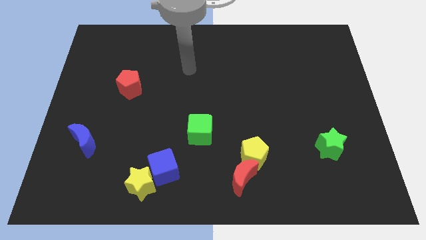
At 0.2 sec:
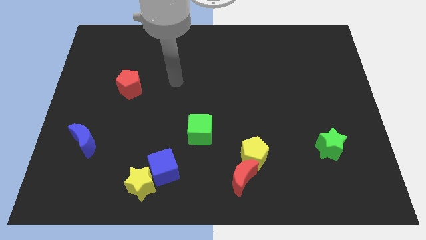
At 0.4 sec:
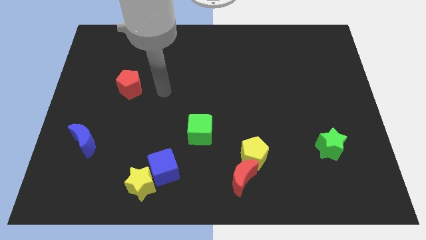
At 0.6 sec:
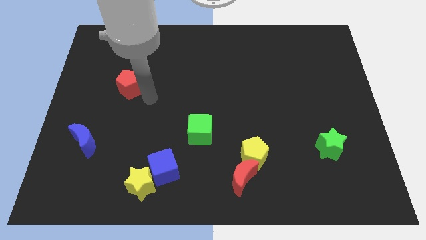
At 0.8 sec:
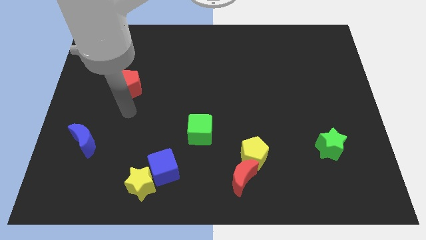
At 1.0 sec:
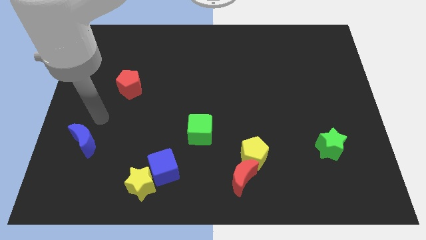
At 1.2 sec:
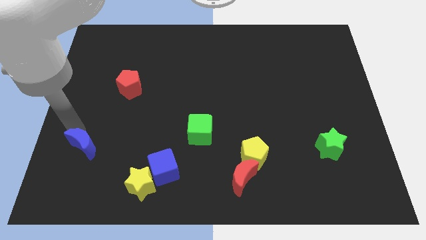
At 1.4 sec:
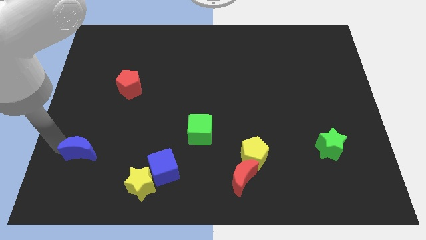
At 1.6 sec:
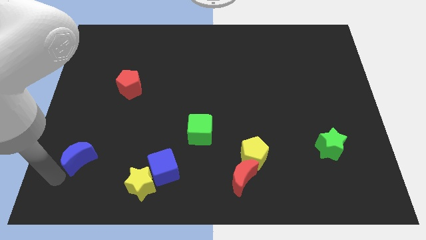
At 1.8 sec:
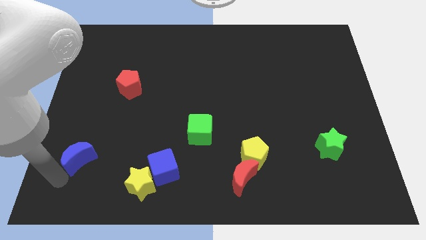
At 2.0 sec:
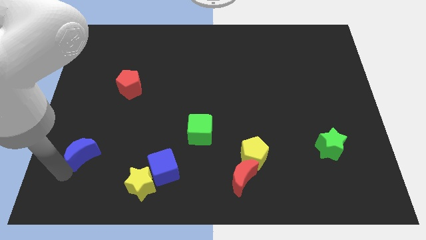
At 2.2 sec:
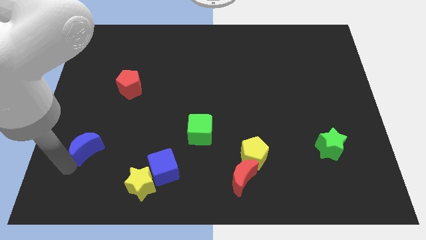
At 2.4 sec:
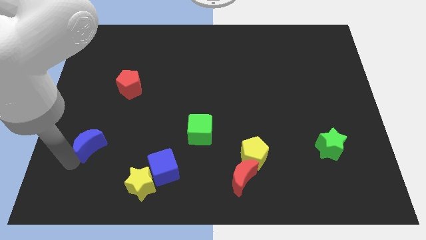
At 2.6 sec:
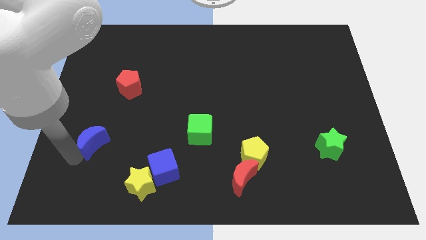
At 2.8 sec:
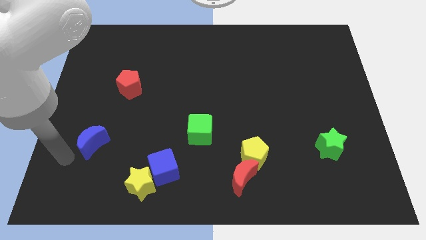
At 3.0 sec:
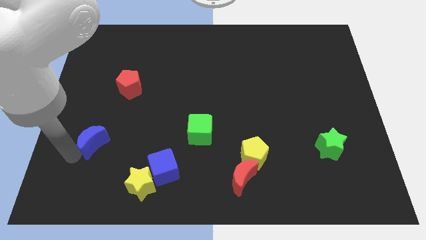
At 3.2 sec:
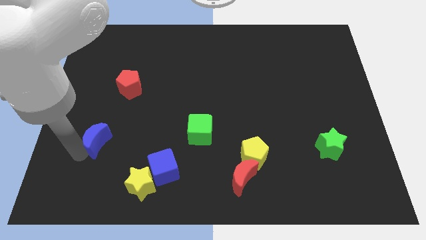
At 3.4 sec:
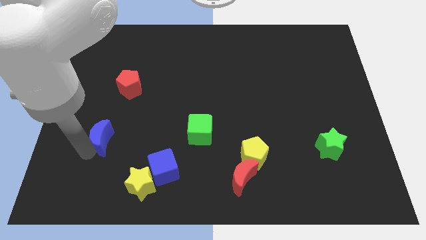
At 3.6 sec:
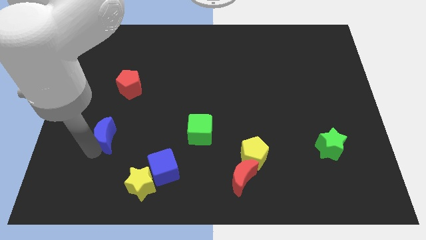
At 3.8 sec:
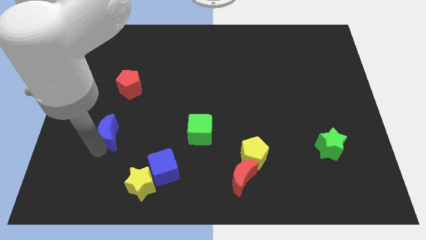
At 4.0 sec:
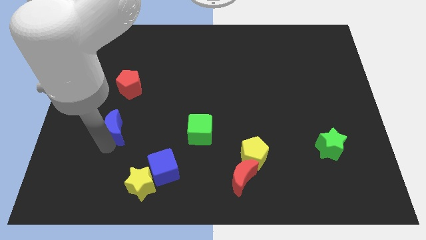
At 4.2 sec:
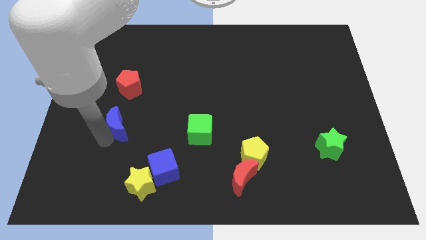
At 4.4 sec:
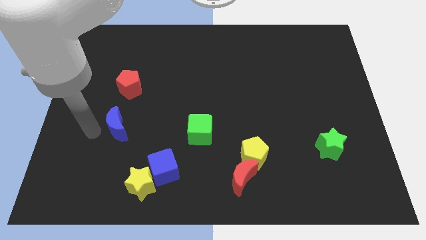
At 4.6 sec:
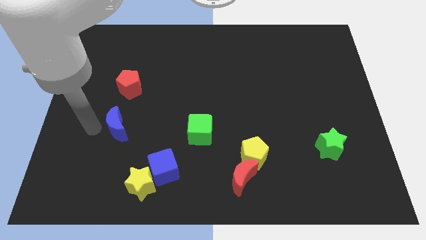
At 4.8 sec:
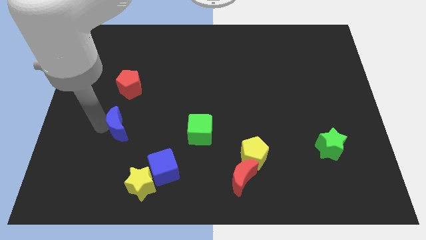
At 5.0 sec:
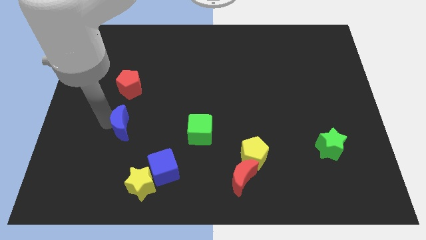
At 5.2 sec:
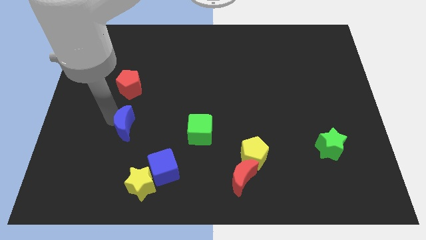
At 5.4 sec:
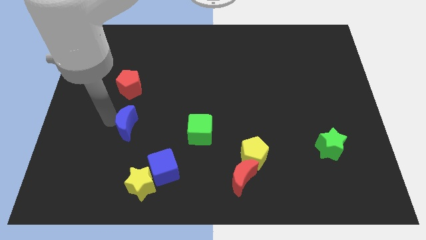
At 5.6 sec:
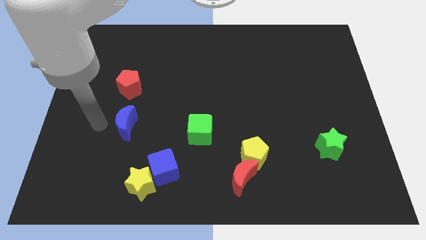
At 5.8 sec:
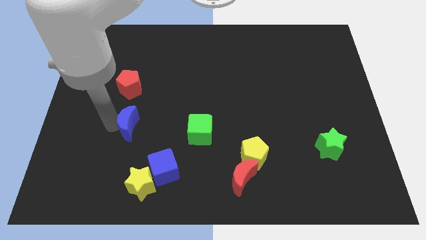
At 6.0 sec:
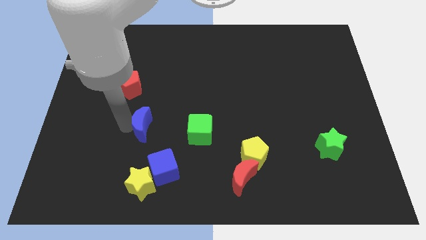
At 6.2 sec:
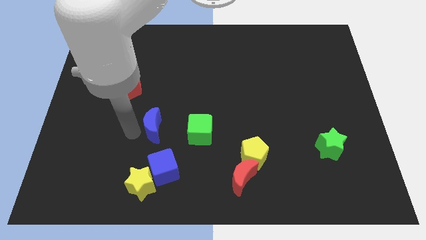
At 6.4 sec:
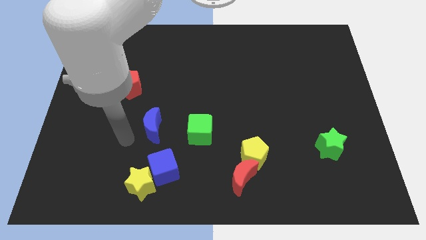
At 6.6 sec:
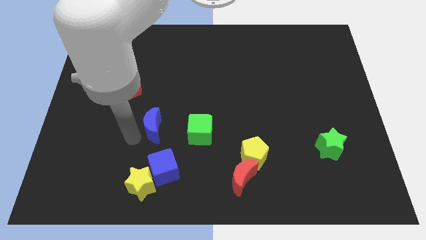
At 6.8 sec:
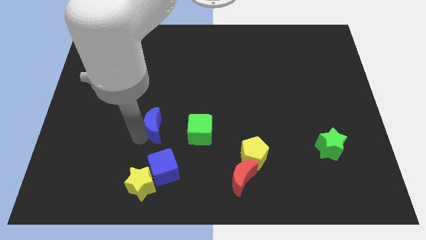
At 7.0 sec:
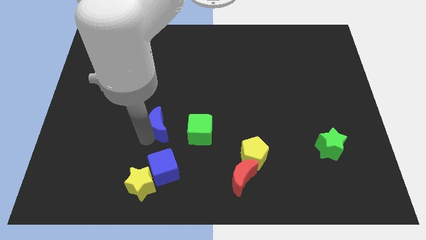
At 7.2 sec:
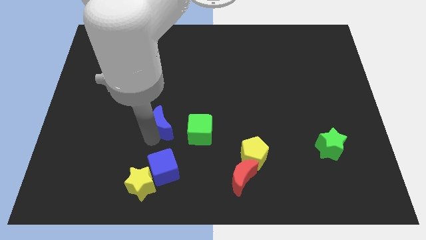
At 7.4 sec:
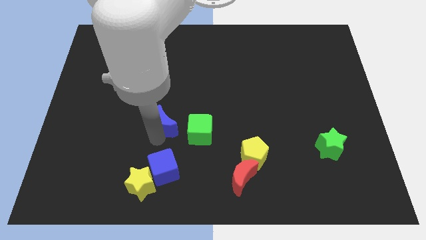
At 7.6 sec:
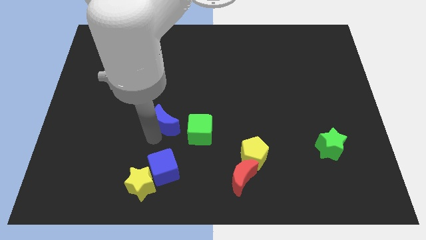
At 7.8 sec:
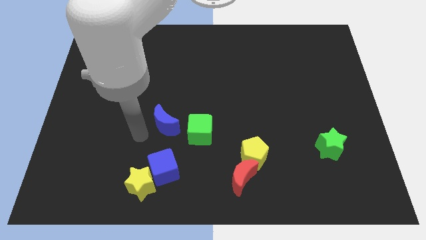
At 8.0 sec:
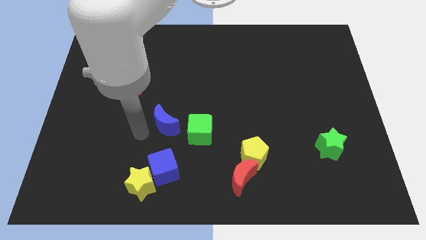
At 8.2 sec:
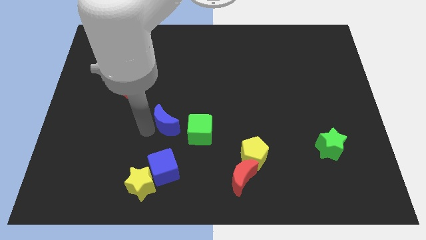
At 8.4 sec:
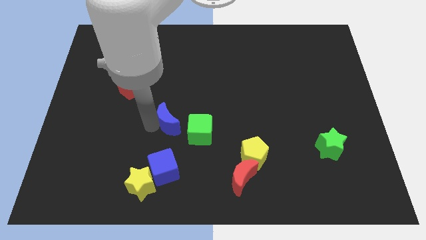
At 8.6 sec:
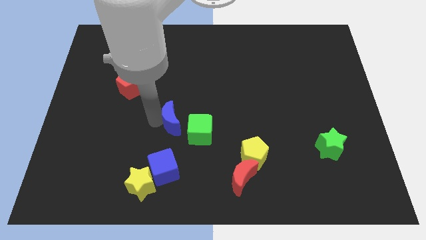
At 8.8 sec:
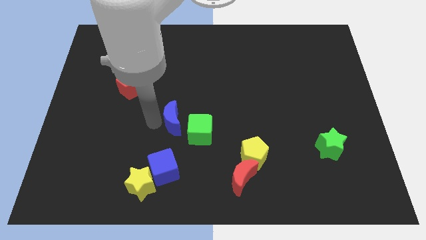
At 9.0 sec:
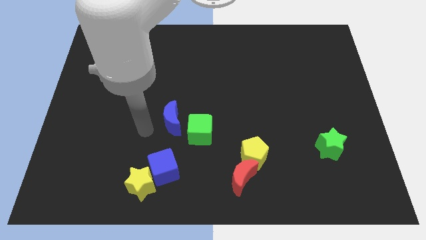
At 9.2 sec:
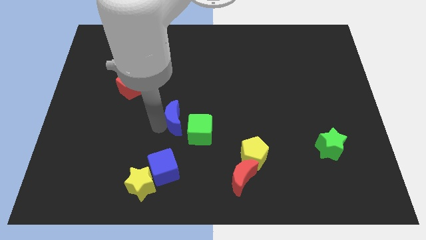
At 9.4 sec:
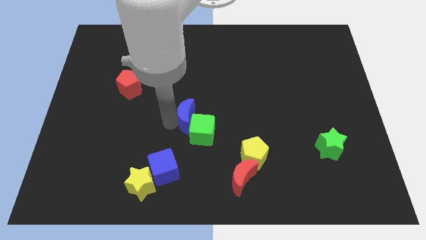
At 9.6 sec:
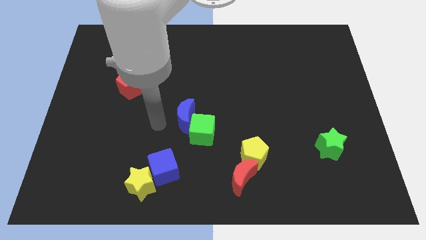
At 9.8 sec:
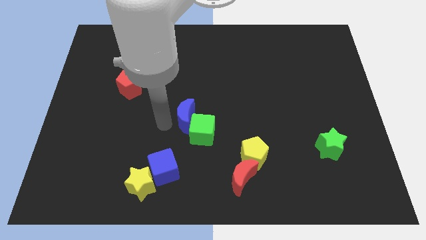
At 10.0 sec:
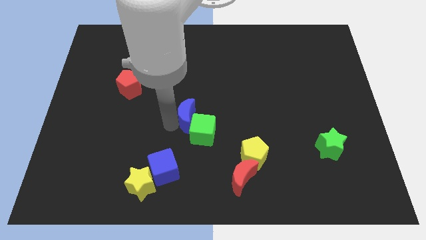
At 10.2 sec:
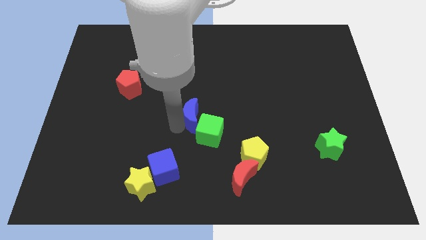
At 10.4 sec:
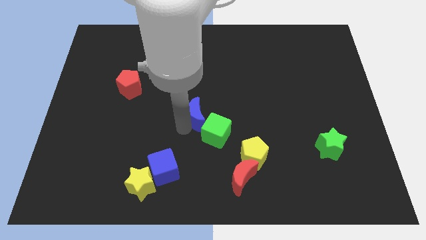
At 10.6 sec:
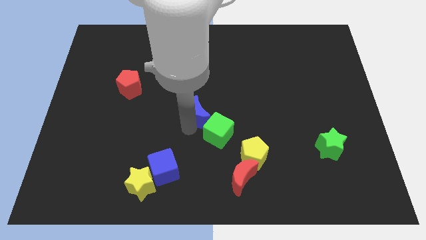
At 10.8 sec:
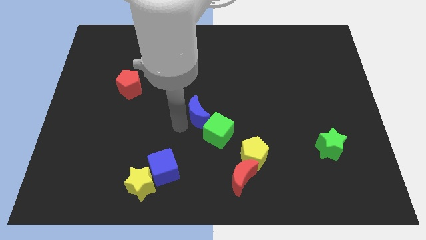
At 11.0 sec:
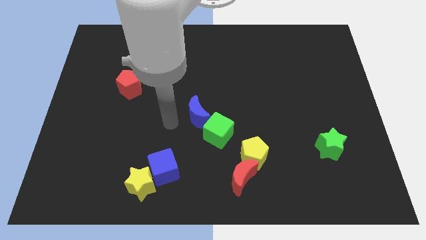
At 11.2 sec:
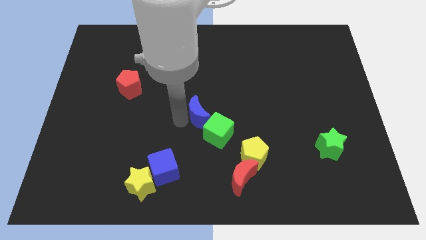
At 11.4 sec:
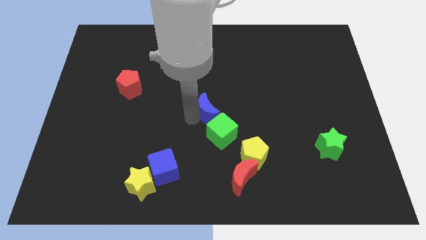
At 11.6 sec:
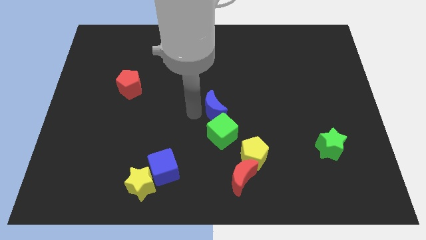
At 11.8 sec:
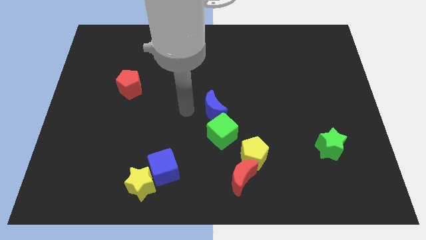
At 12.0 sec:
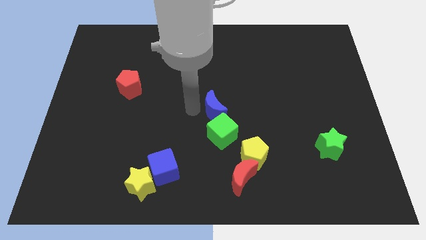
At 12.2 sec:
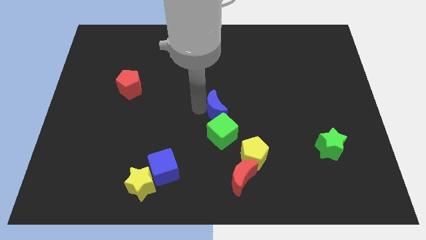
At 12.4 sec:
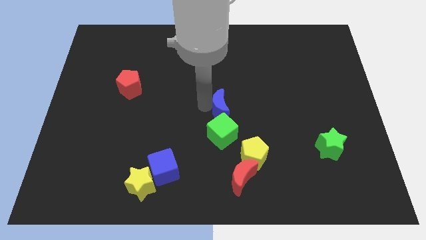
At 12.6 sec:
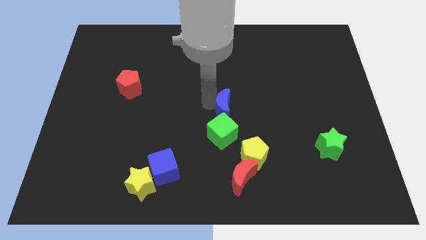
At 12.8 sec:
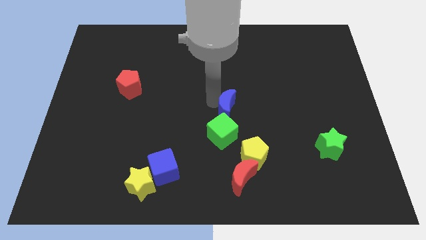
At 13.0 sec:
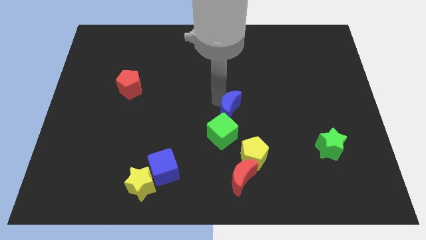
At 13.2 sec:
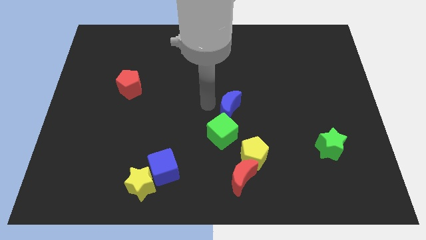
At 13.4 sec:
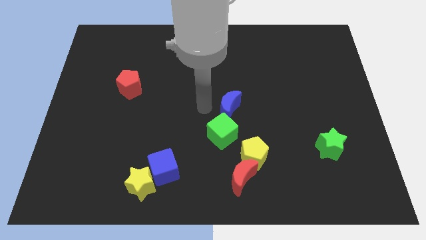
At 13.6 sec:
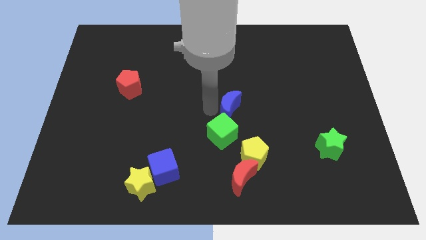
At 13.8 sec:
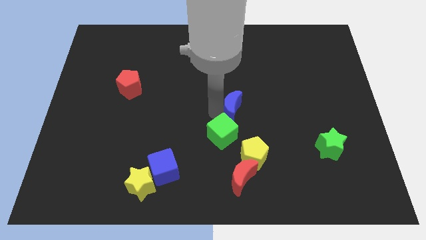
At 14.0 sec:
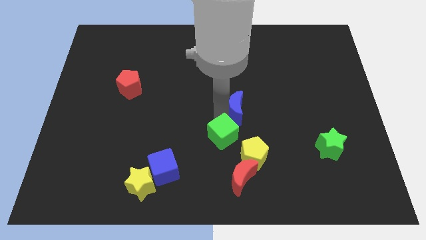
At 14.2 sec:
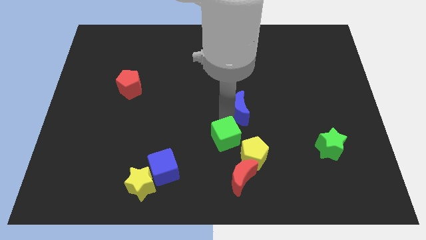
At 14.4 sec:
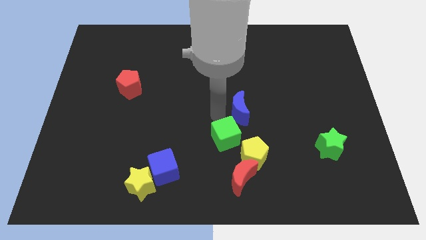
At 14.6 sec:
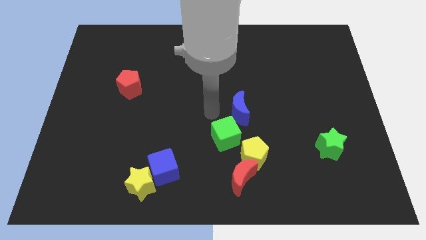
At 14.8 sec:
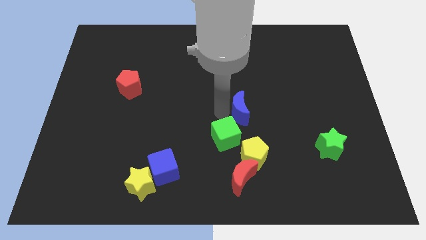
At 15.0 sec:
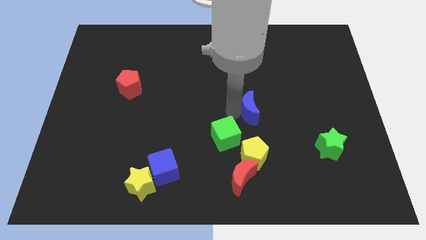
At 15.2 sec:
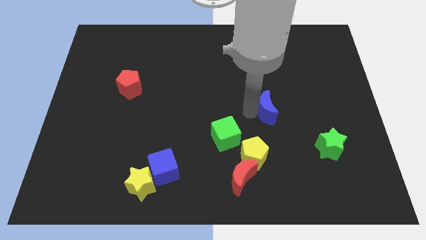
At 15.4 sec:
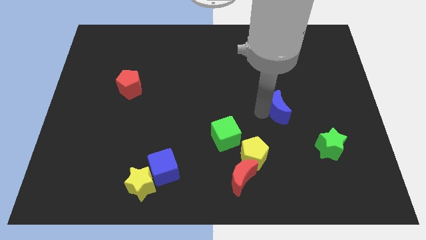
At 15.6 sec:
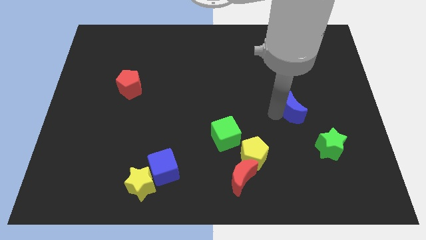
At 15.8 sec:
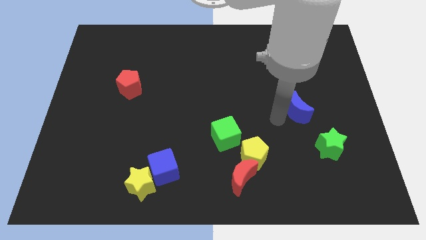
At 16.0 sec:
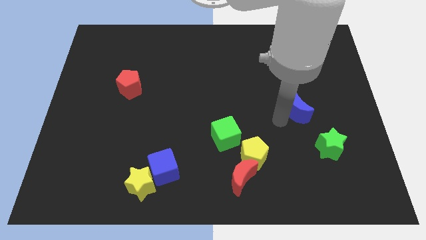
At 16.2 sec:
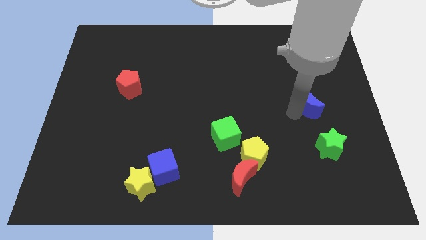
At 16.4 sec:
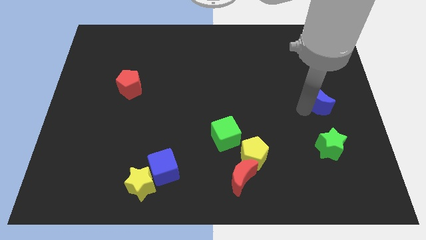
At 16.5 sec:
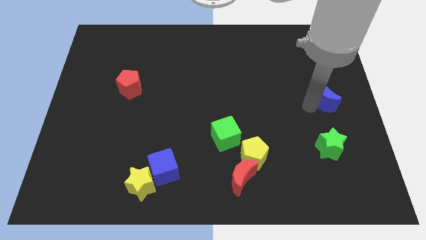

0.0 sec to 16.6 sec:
slide the blue moon to the right side of the board
